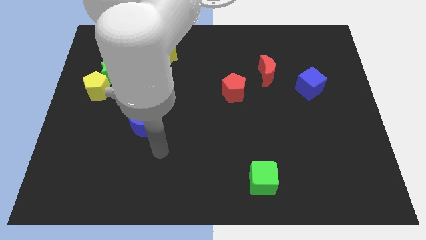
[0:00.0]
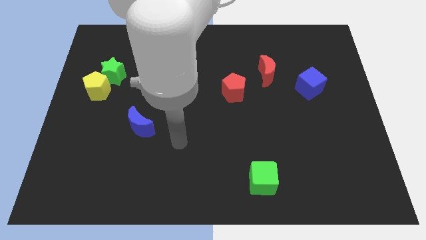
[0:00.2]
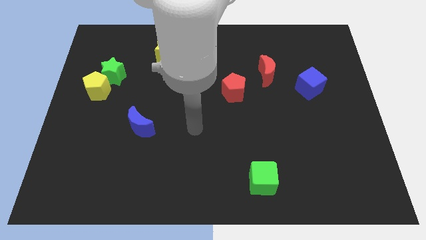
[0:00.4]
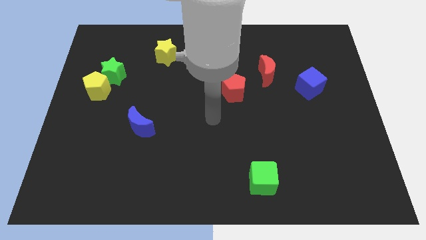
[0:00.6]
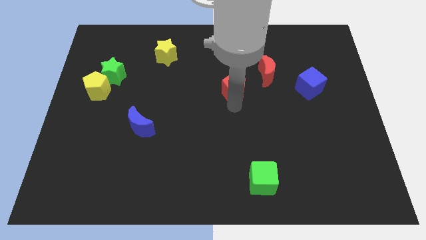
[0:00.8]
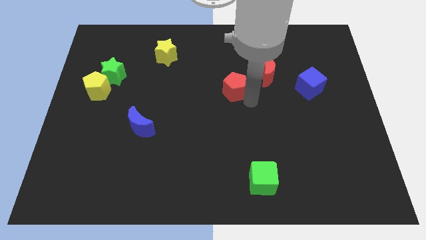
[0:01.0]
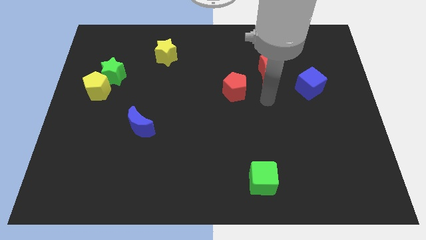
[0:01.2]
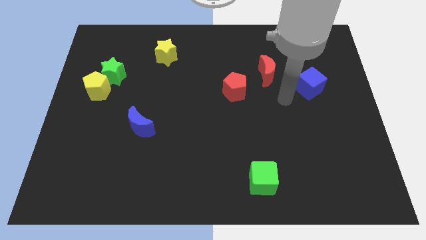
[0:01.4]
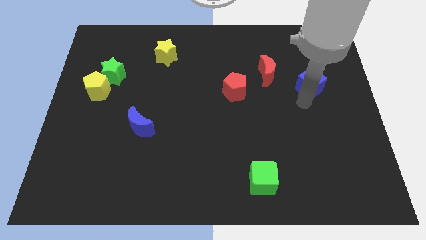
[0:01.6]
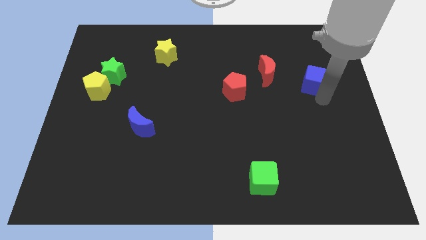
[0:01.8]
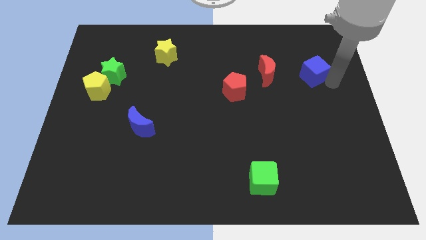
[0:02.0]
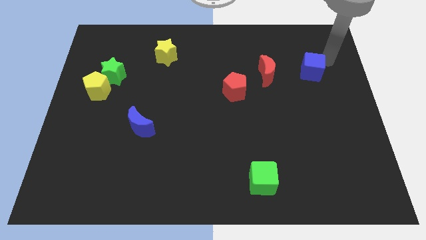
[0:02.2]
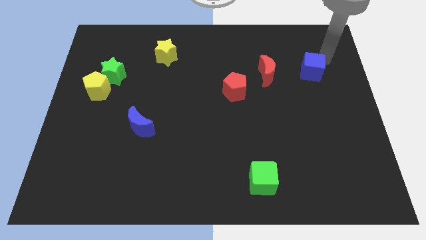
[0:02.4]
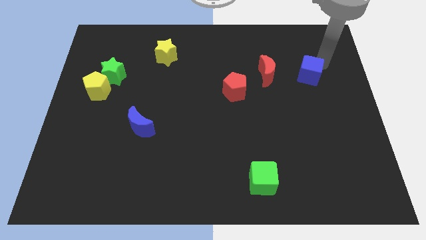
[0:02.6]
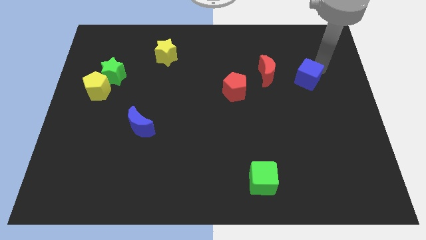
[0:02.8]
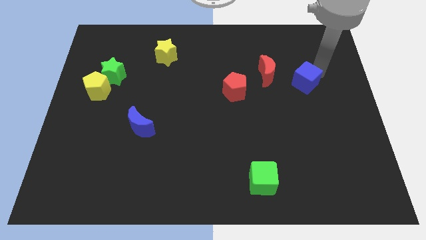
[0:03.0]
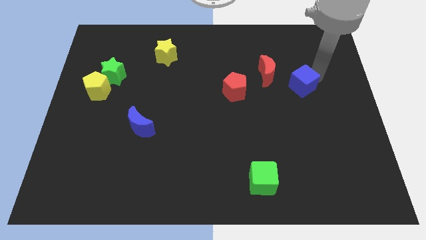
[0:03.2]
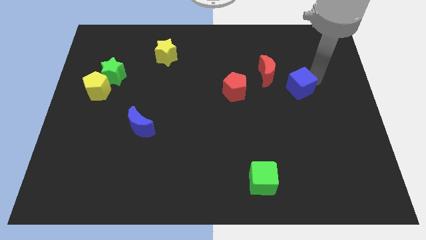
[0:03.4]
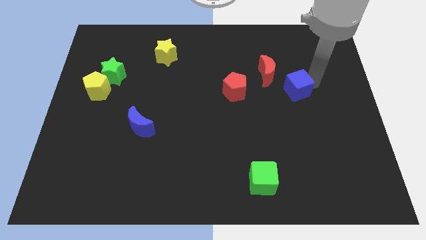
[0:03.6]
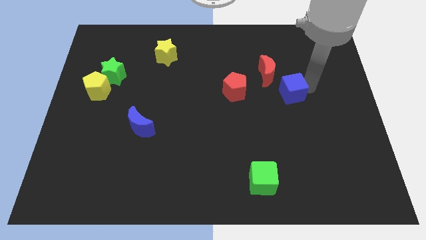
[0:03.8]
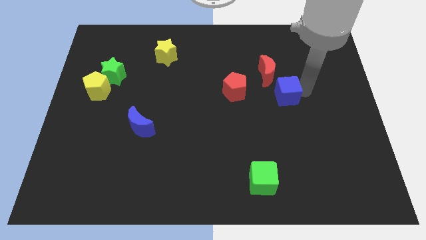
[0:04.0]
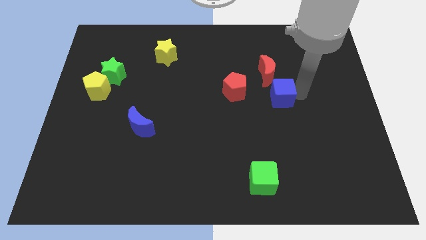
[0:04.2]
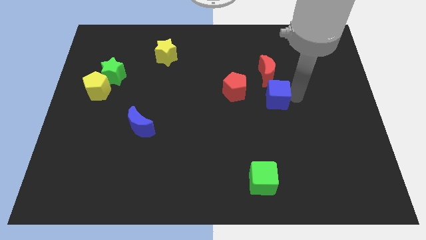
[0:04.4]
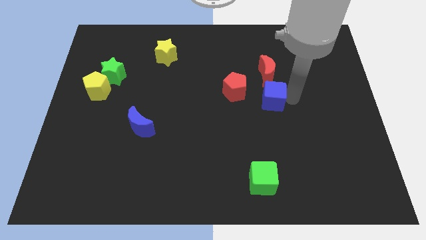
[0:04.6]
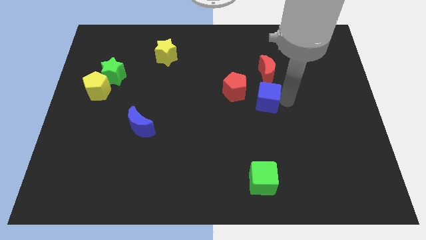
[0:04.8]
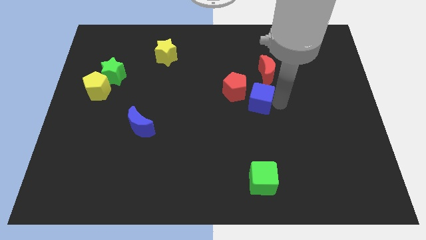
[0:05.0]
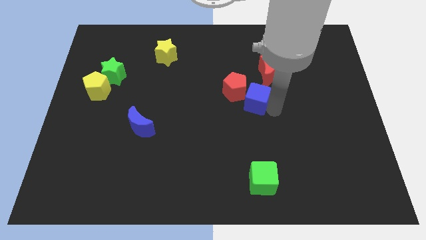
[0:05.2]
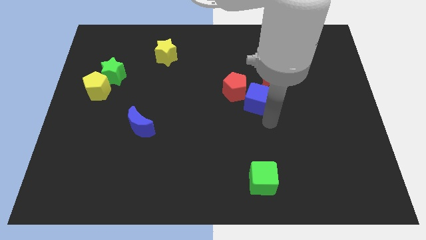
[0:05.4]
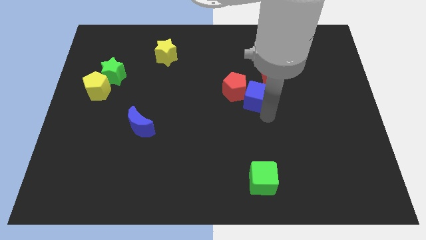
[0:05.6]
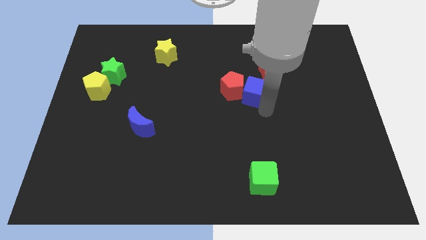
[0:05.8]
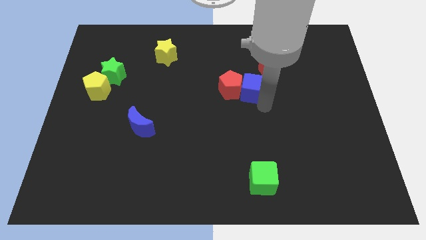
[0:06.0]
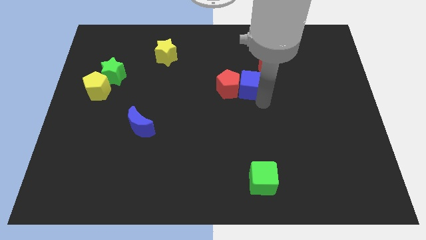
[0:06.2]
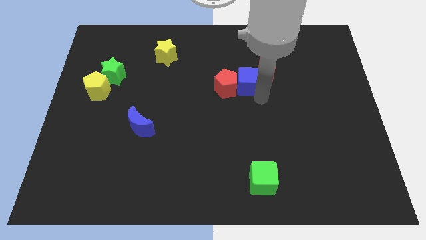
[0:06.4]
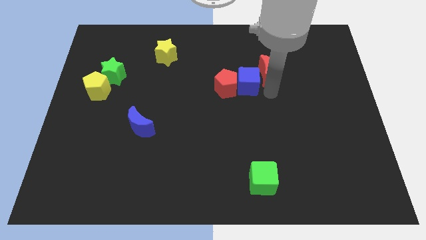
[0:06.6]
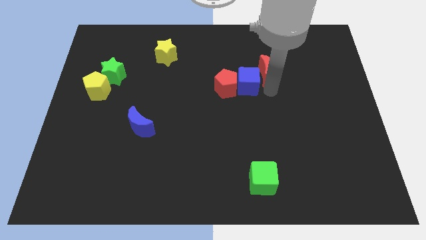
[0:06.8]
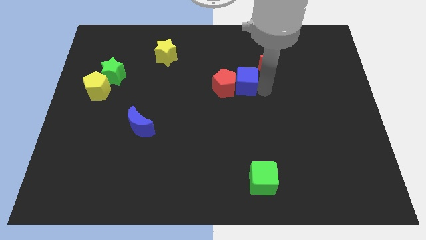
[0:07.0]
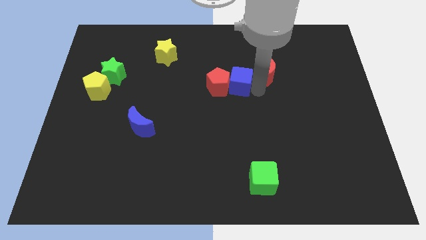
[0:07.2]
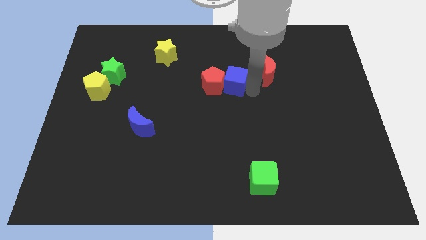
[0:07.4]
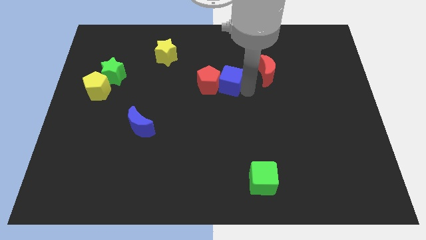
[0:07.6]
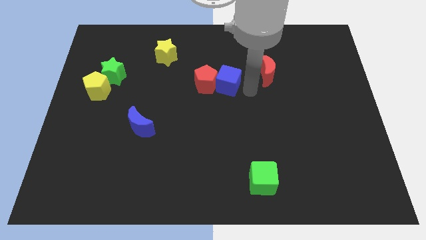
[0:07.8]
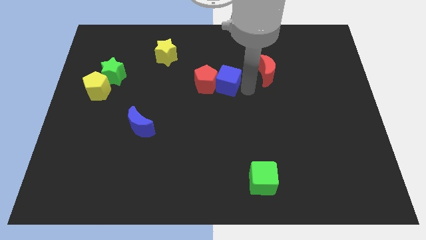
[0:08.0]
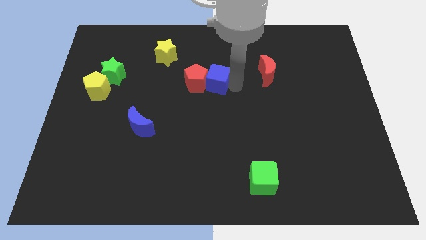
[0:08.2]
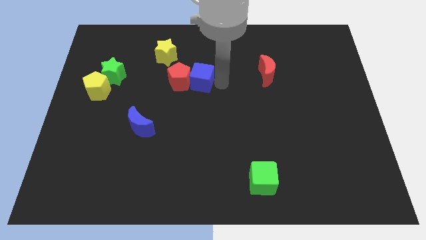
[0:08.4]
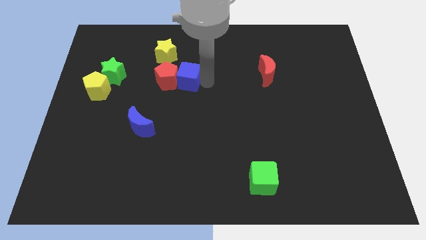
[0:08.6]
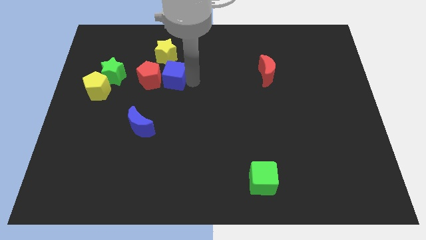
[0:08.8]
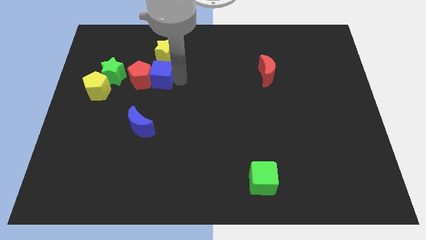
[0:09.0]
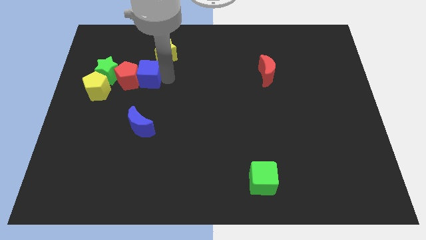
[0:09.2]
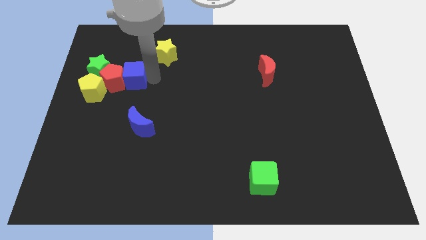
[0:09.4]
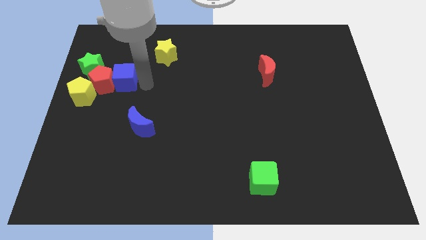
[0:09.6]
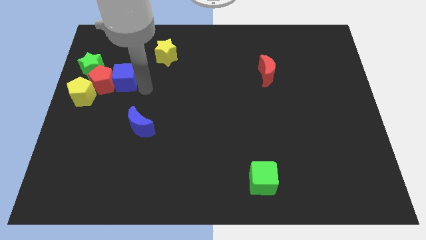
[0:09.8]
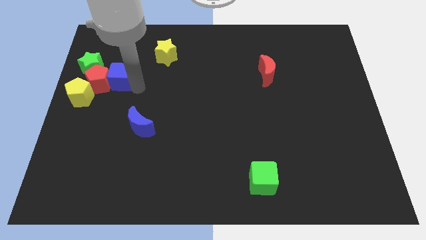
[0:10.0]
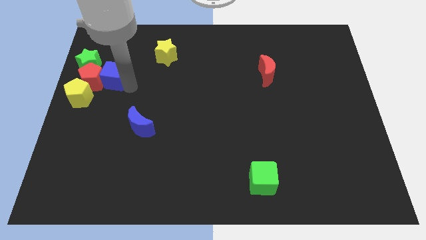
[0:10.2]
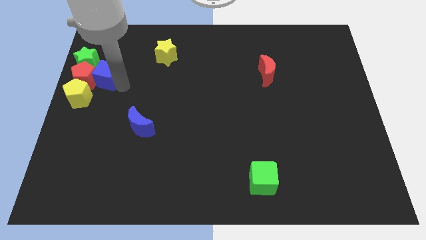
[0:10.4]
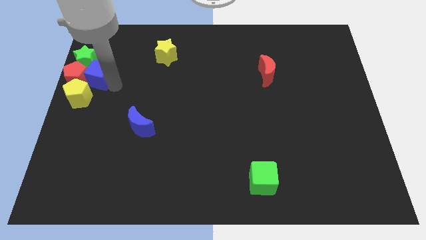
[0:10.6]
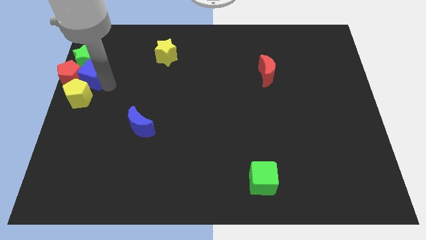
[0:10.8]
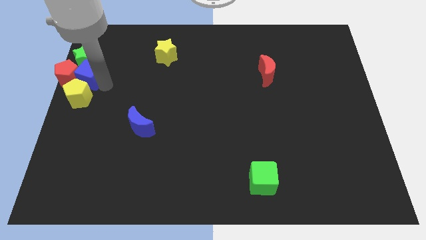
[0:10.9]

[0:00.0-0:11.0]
slide the blue cube to the green star

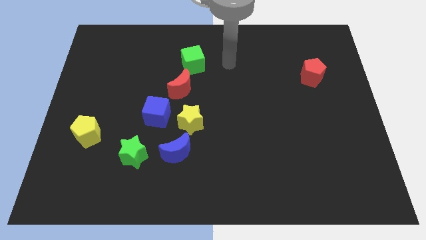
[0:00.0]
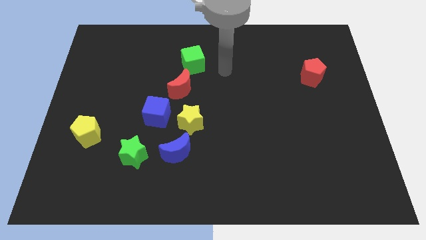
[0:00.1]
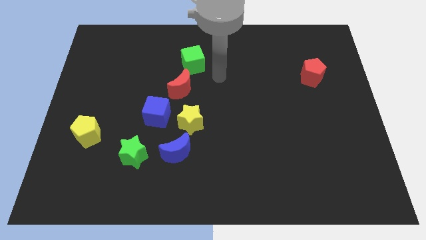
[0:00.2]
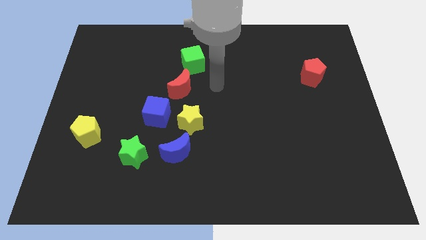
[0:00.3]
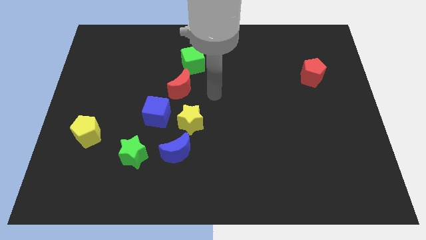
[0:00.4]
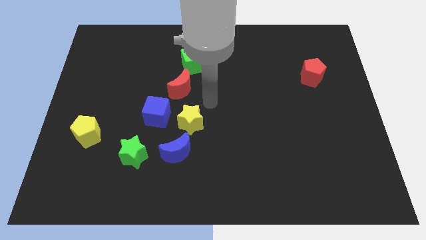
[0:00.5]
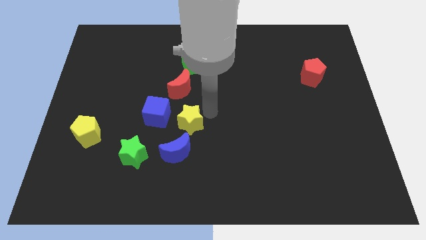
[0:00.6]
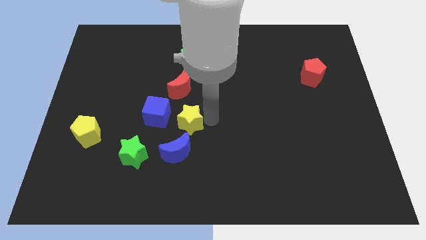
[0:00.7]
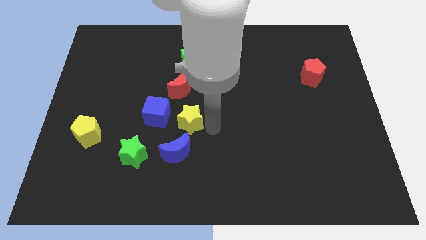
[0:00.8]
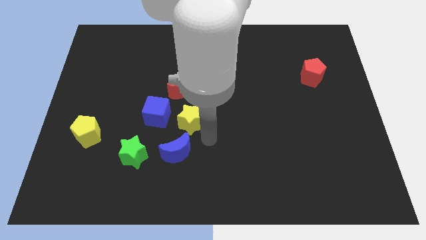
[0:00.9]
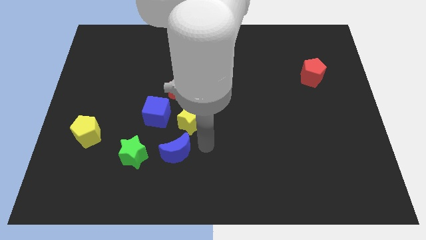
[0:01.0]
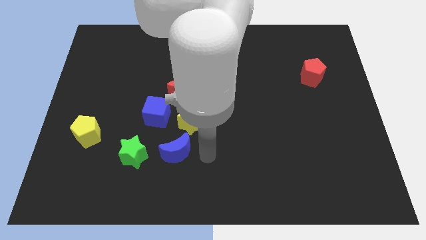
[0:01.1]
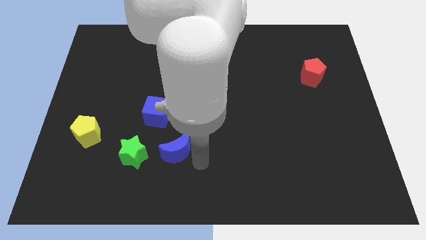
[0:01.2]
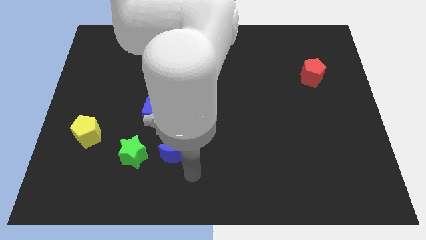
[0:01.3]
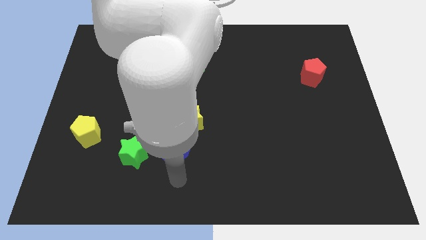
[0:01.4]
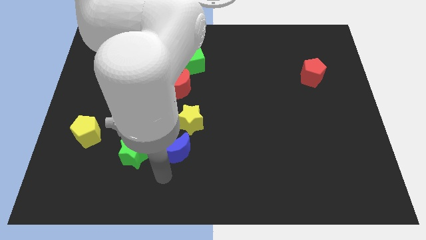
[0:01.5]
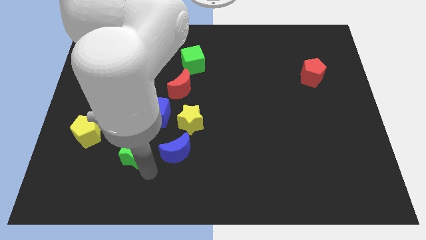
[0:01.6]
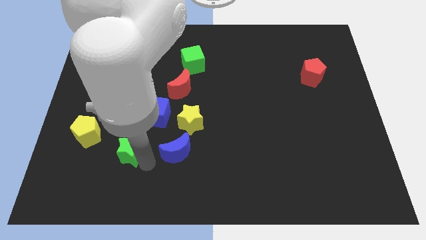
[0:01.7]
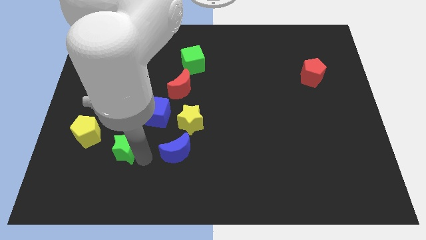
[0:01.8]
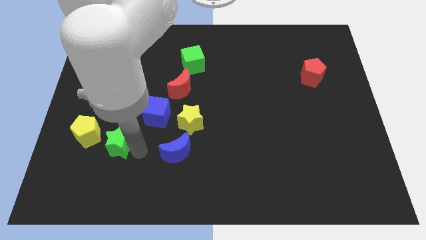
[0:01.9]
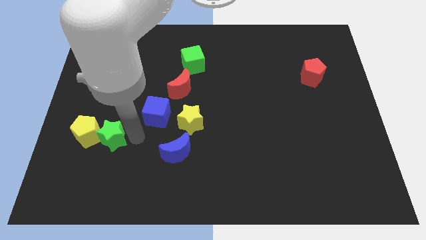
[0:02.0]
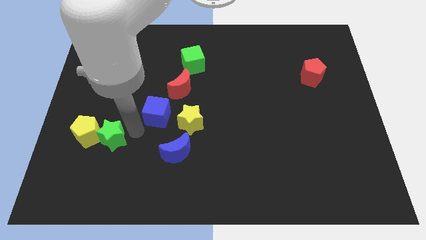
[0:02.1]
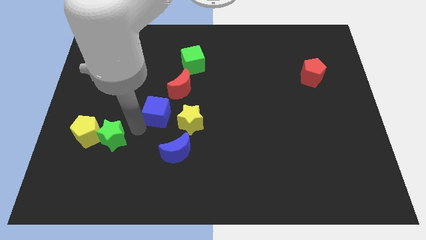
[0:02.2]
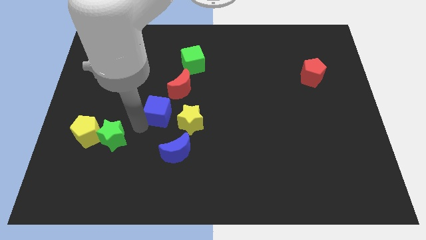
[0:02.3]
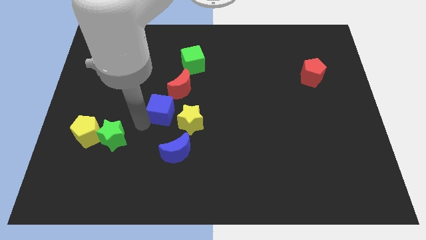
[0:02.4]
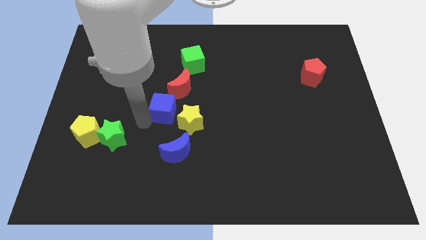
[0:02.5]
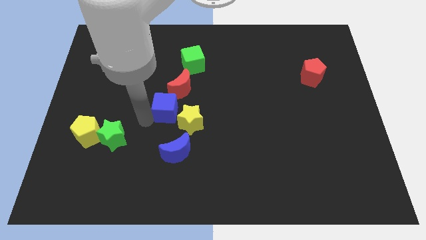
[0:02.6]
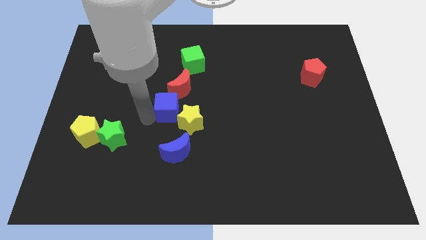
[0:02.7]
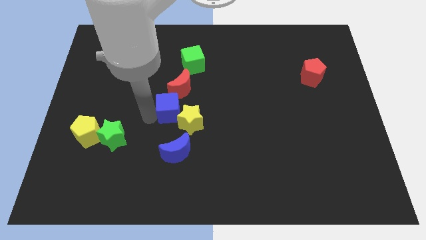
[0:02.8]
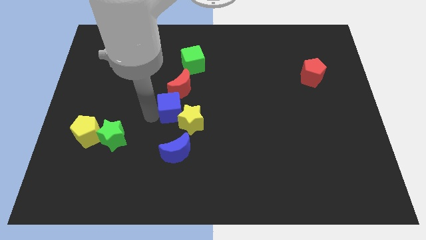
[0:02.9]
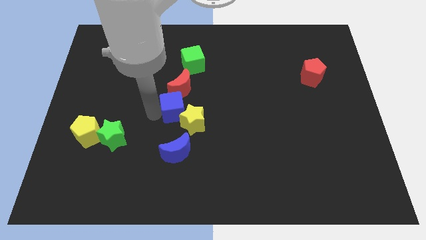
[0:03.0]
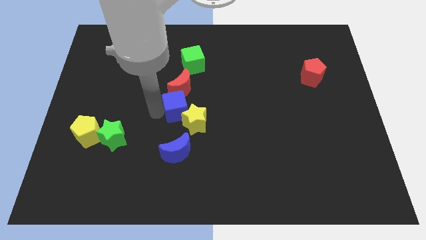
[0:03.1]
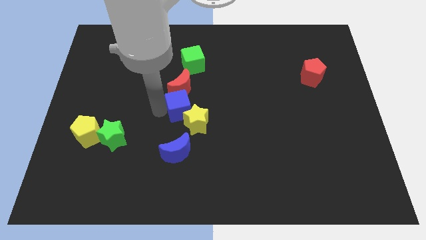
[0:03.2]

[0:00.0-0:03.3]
push the blue cube to the red moon
